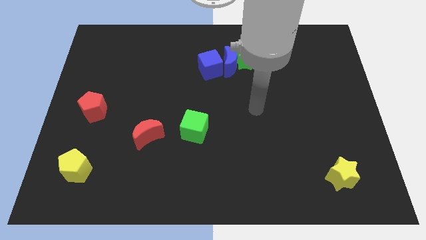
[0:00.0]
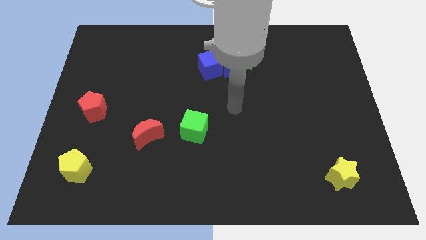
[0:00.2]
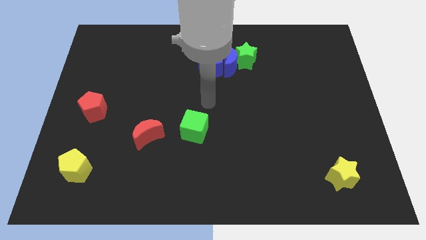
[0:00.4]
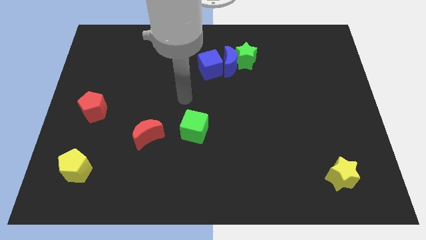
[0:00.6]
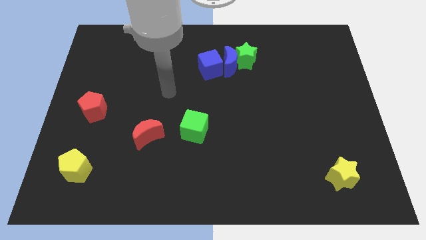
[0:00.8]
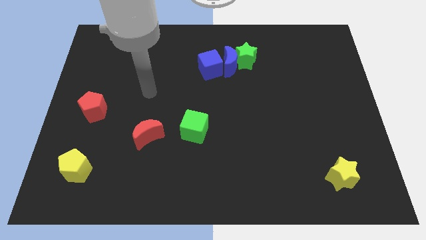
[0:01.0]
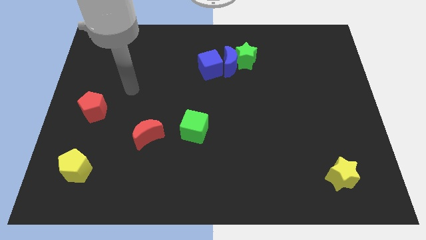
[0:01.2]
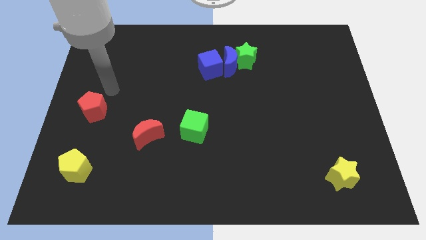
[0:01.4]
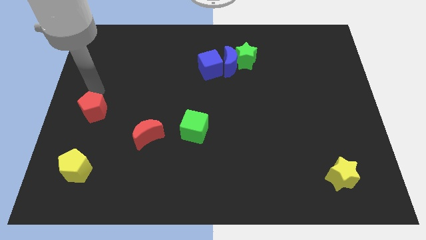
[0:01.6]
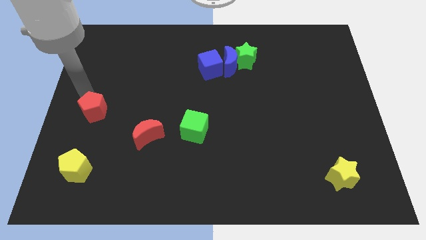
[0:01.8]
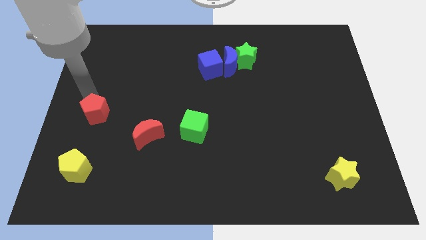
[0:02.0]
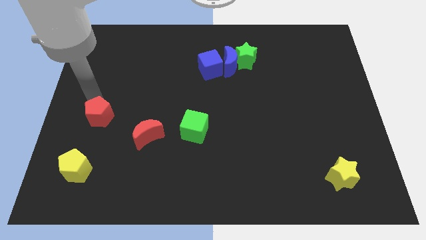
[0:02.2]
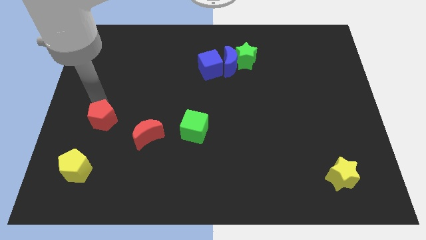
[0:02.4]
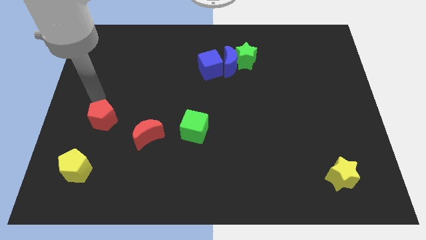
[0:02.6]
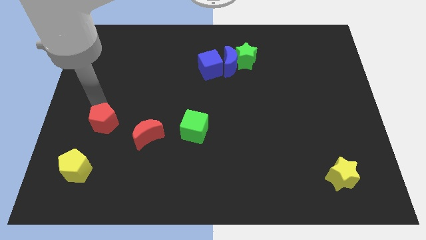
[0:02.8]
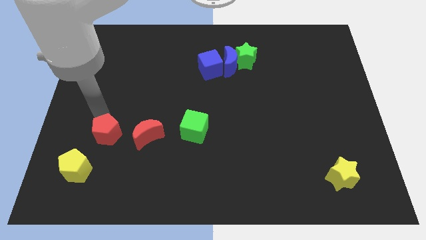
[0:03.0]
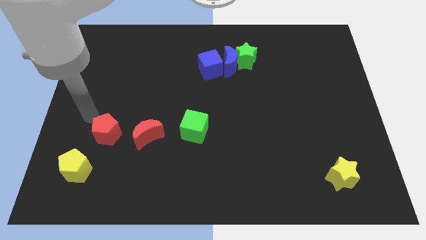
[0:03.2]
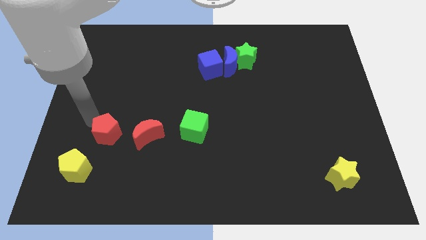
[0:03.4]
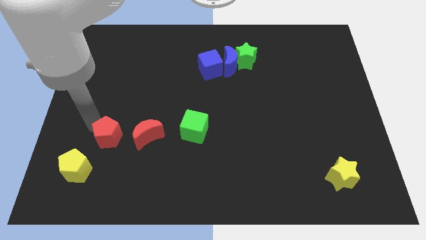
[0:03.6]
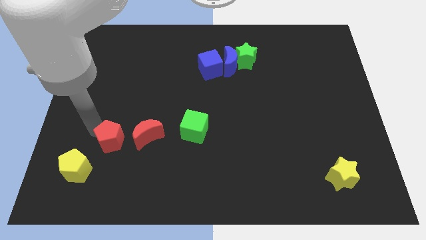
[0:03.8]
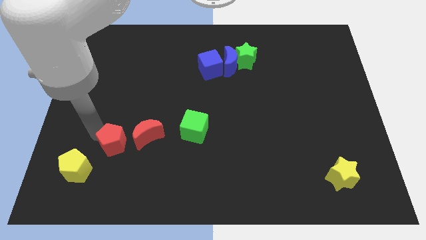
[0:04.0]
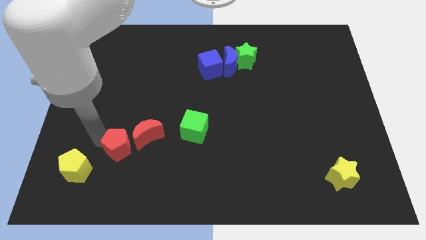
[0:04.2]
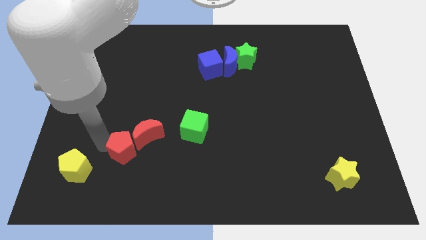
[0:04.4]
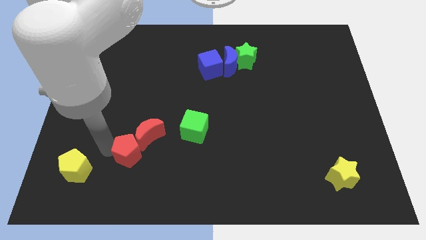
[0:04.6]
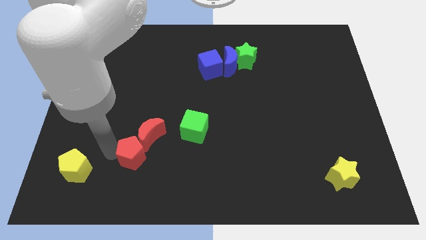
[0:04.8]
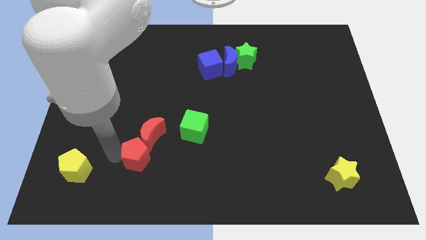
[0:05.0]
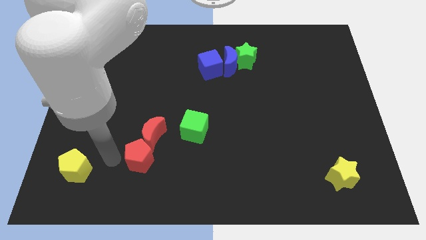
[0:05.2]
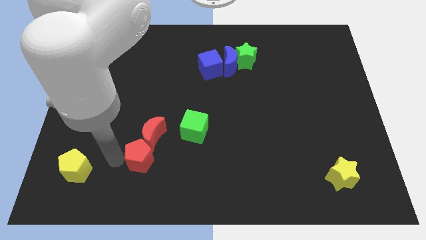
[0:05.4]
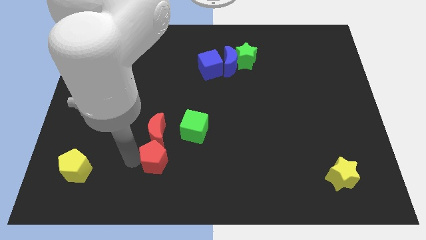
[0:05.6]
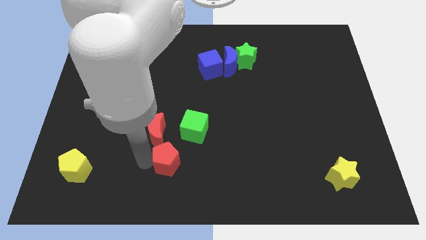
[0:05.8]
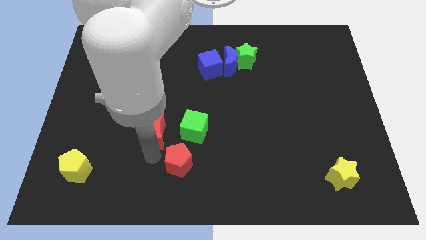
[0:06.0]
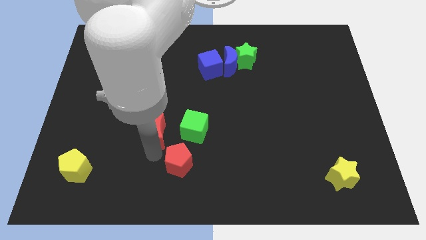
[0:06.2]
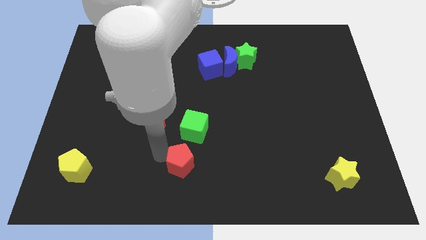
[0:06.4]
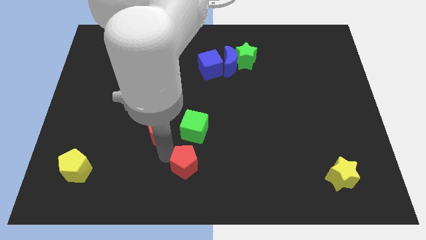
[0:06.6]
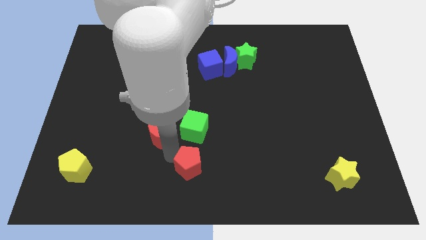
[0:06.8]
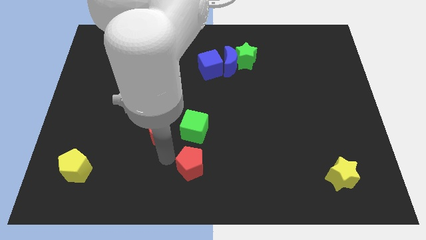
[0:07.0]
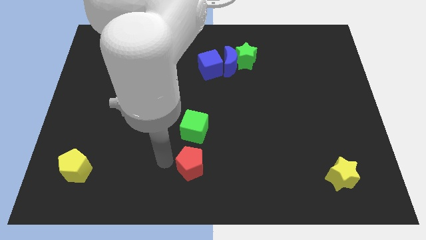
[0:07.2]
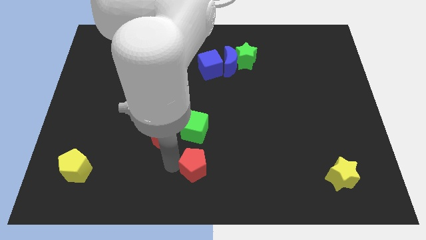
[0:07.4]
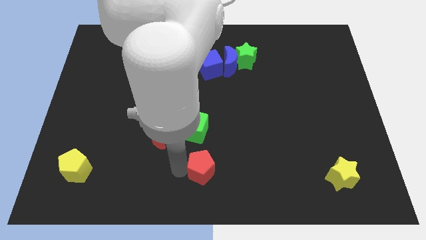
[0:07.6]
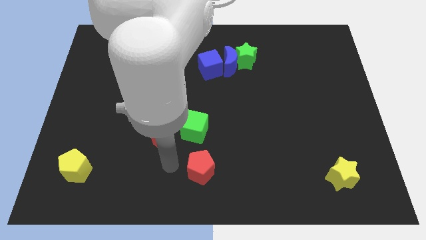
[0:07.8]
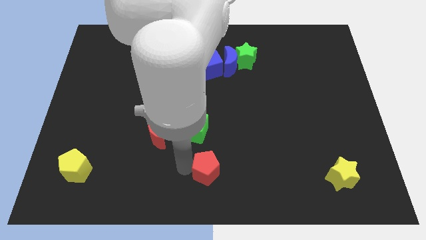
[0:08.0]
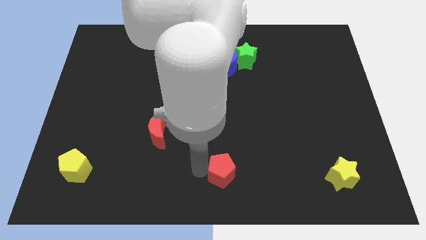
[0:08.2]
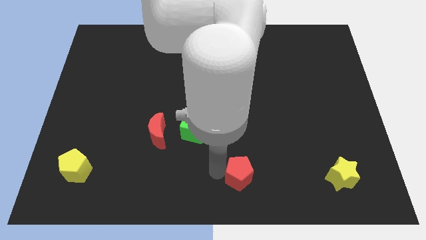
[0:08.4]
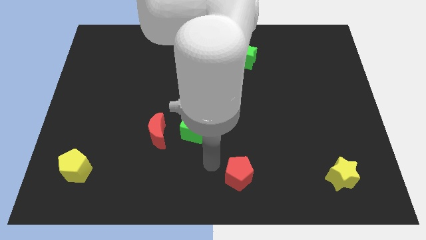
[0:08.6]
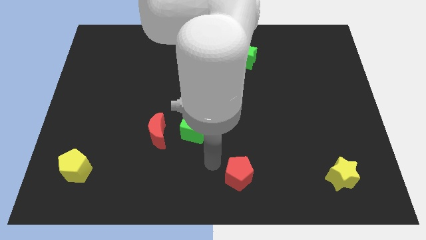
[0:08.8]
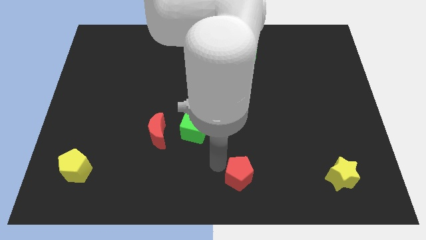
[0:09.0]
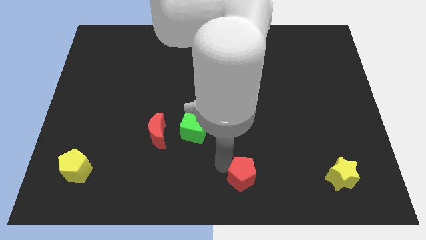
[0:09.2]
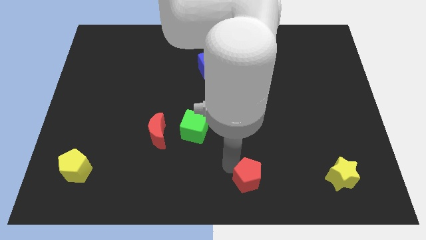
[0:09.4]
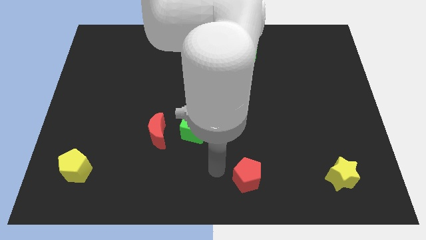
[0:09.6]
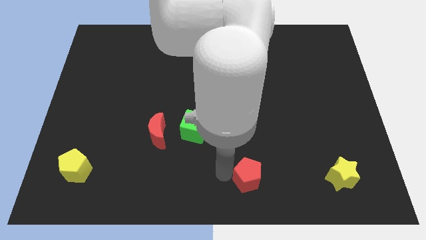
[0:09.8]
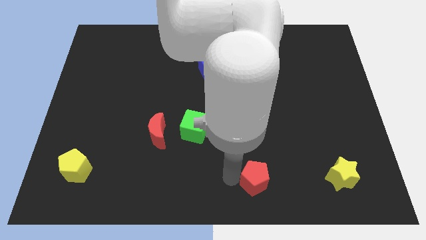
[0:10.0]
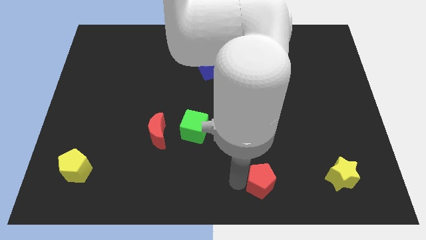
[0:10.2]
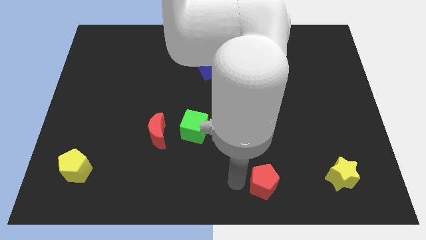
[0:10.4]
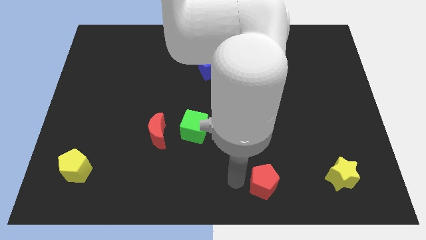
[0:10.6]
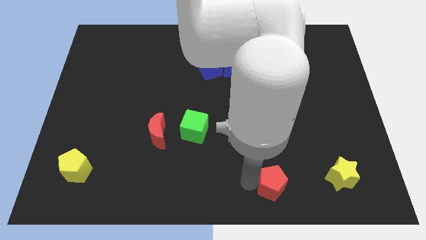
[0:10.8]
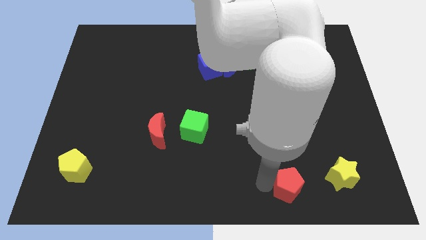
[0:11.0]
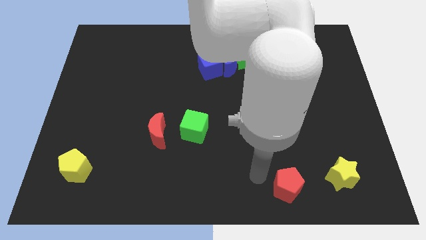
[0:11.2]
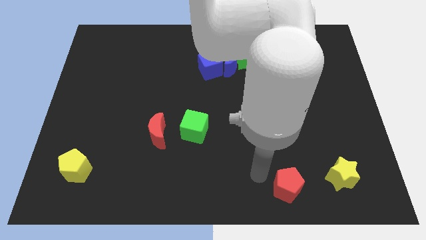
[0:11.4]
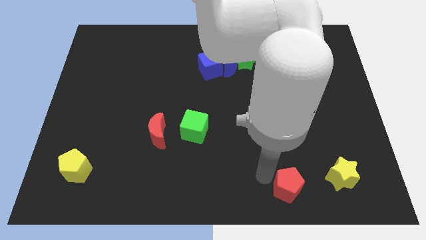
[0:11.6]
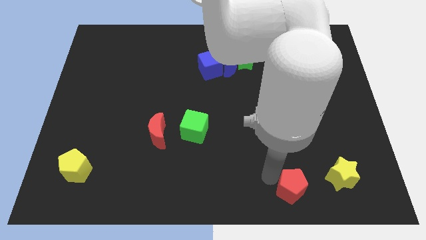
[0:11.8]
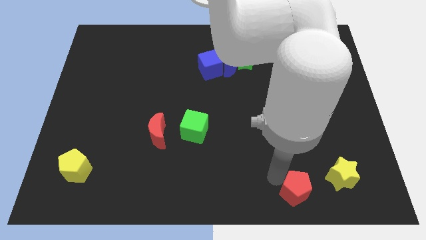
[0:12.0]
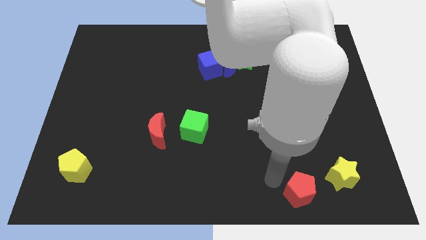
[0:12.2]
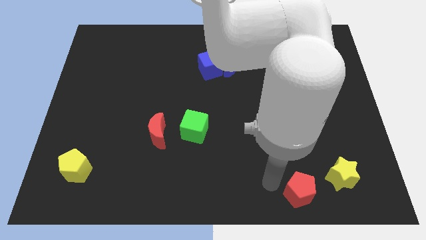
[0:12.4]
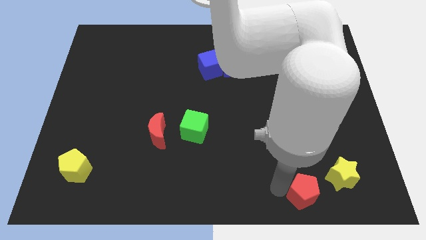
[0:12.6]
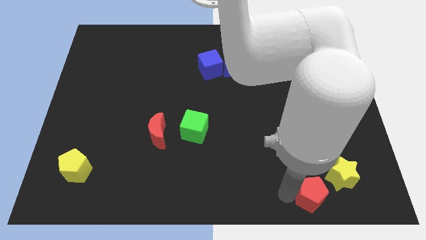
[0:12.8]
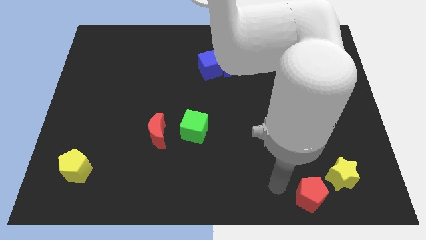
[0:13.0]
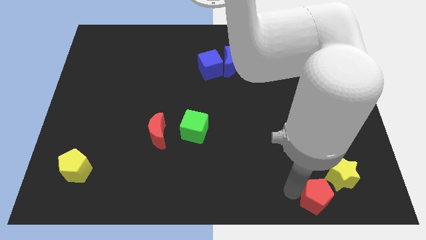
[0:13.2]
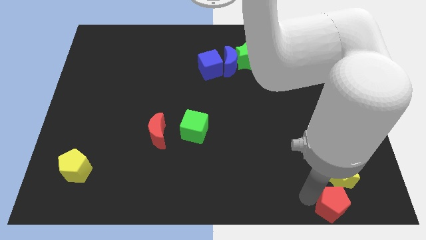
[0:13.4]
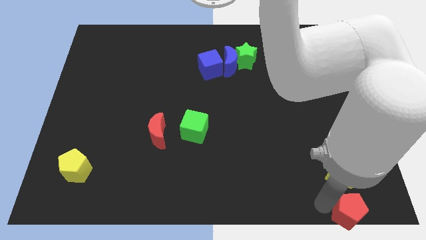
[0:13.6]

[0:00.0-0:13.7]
push the red pentagon to the lower right corner
